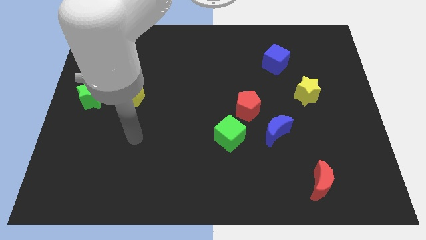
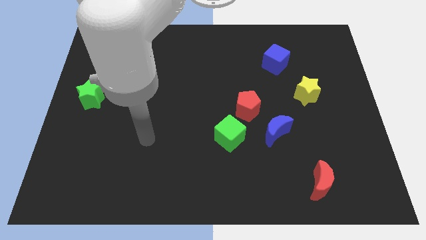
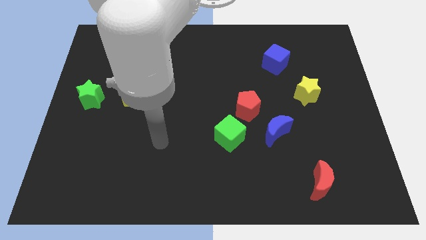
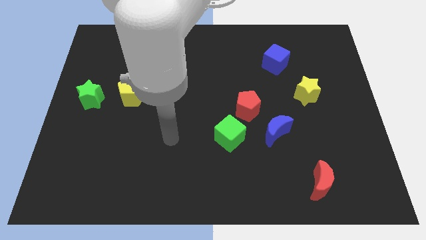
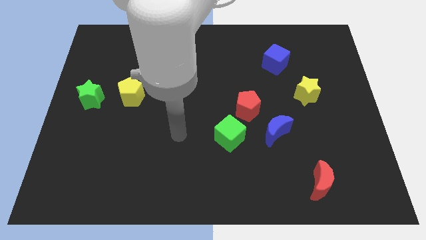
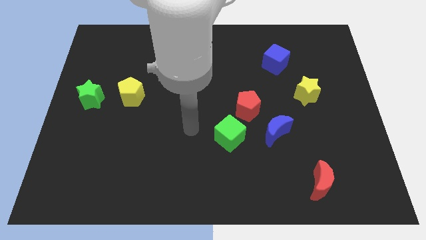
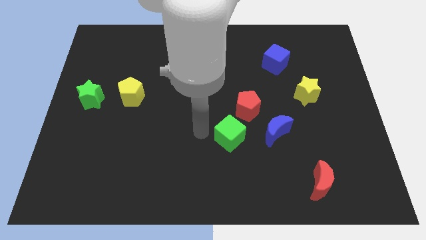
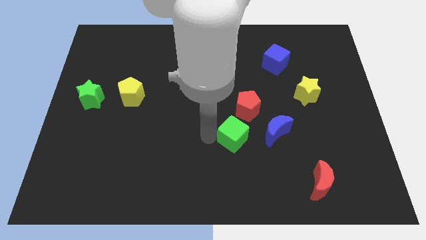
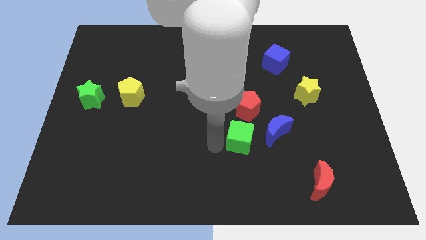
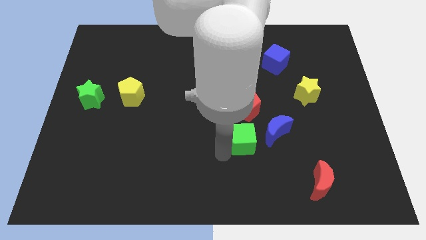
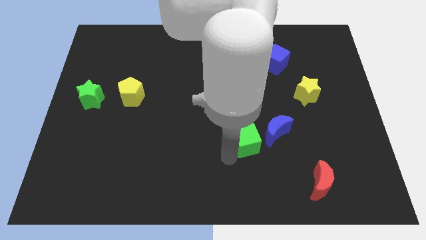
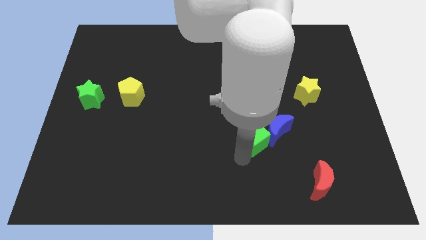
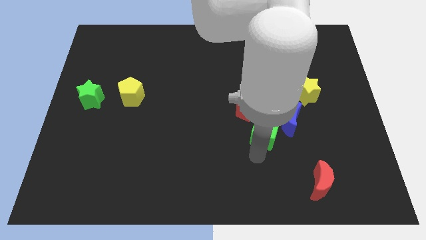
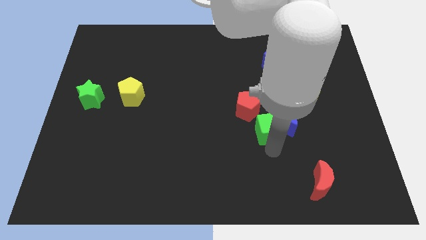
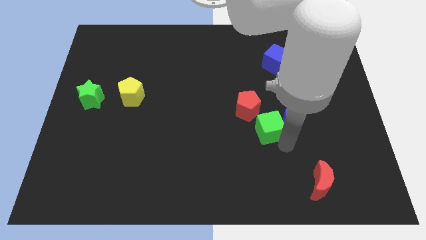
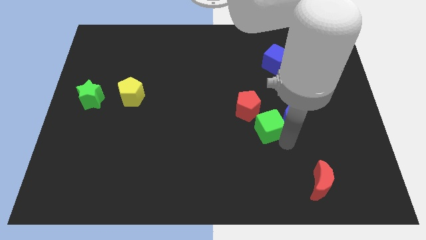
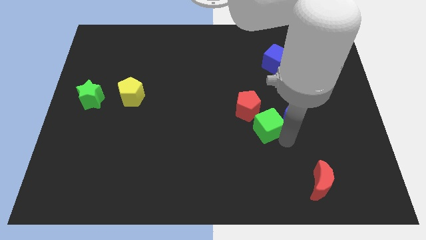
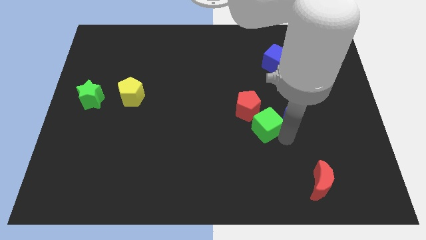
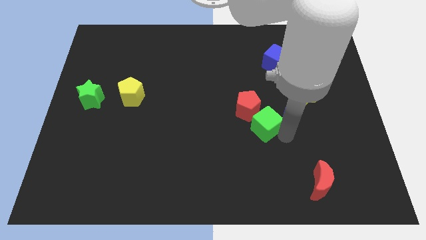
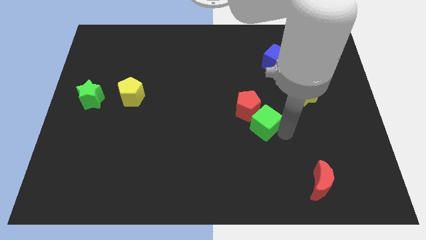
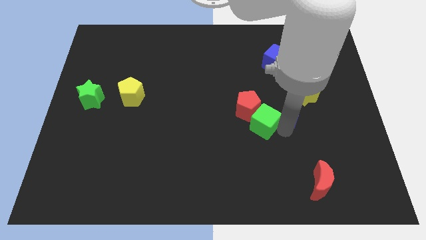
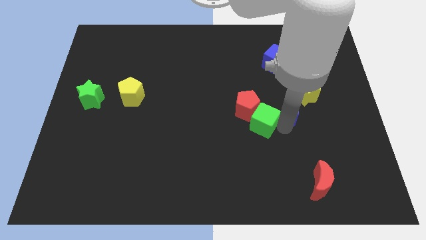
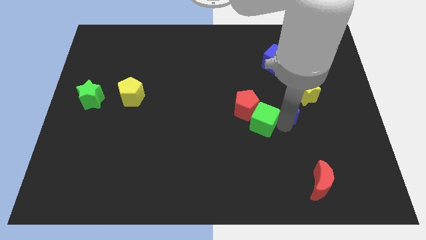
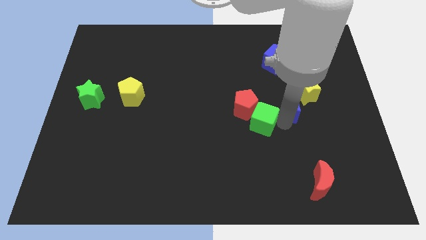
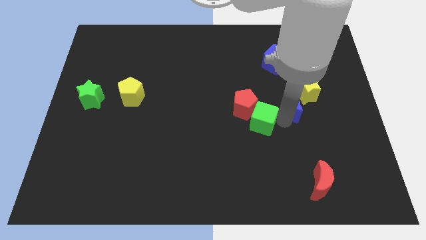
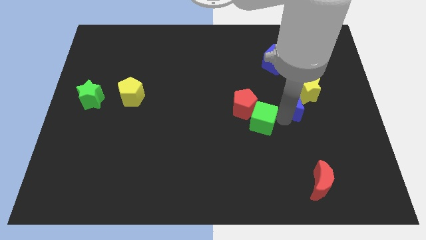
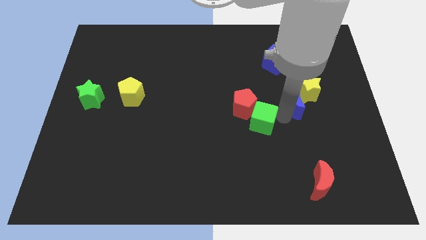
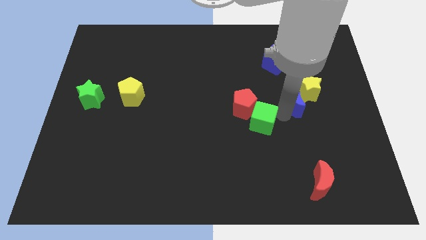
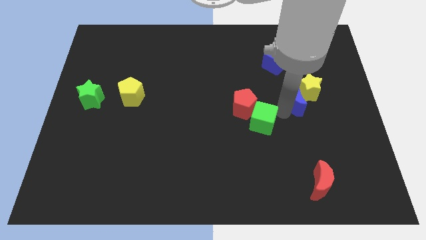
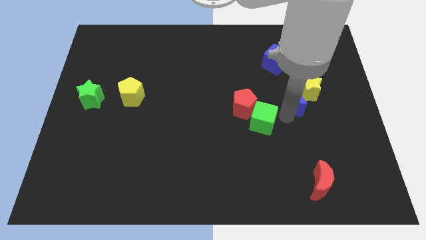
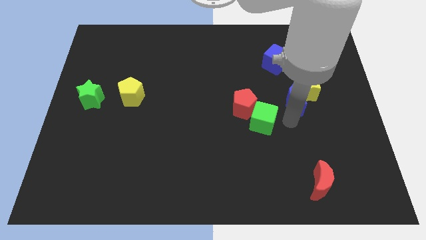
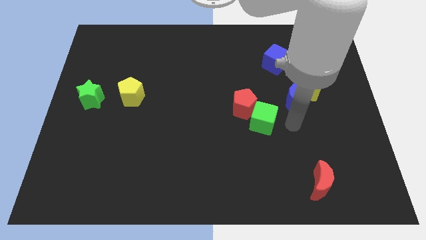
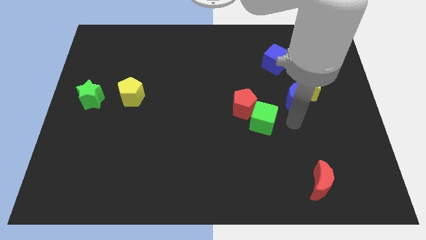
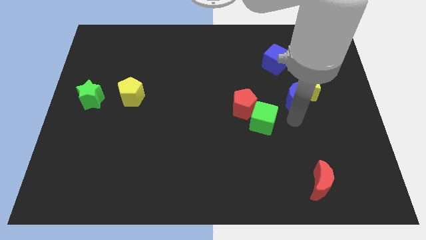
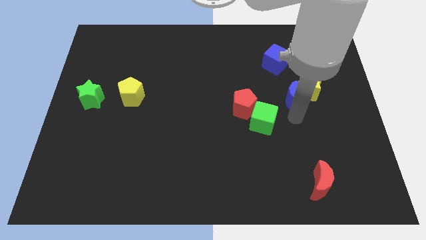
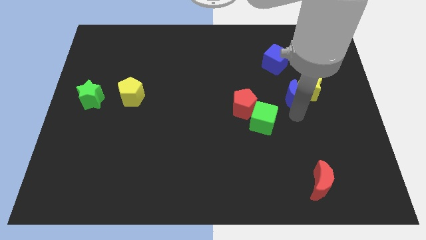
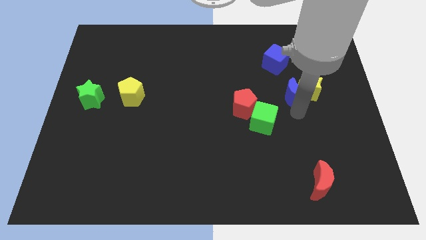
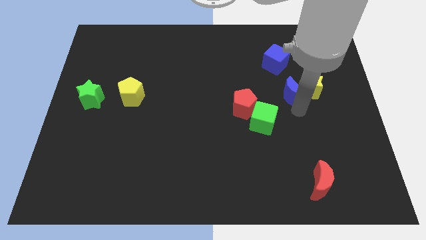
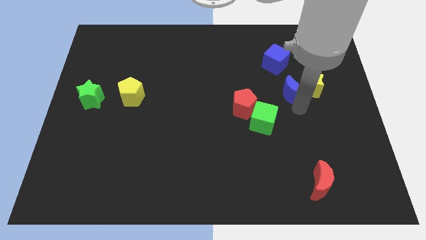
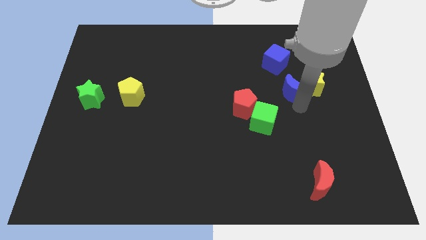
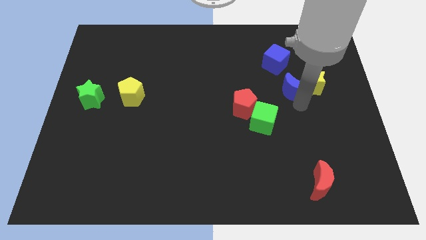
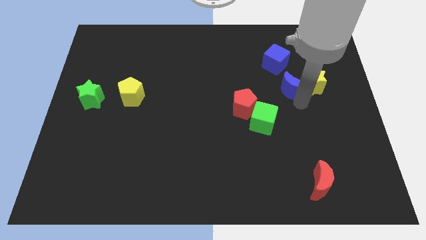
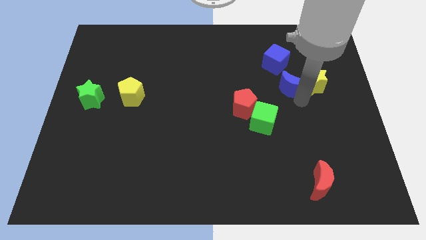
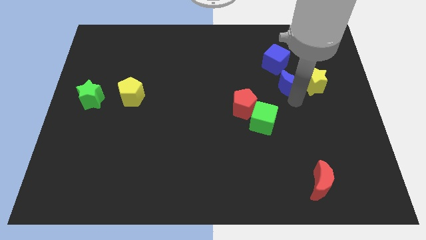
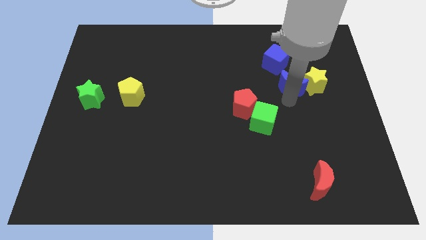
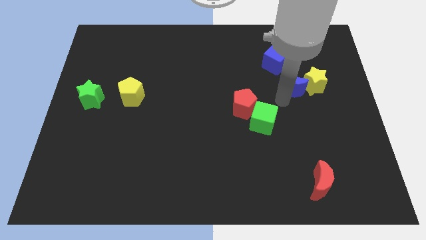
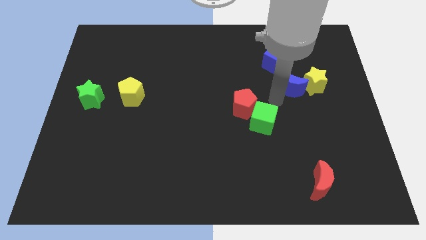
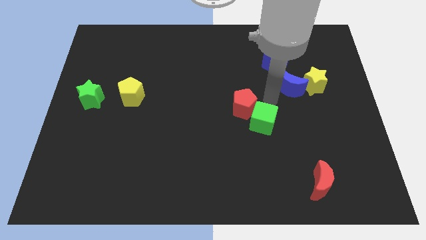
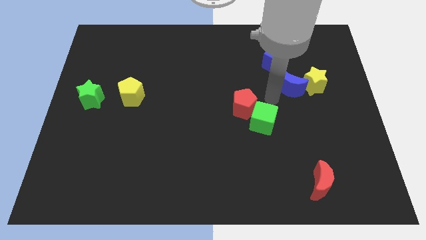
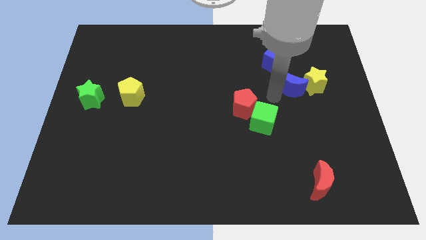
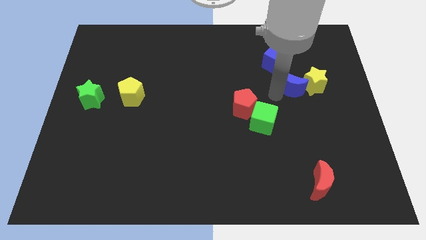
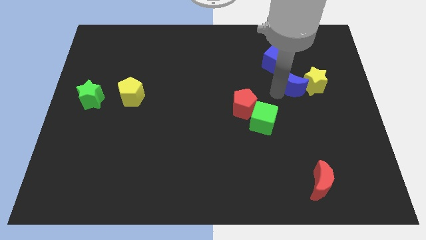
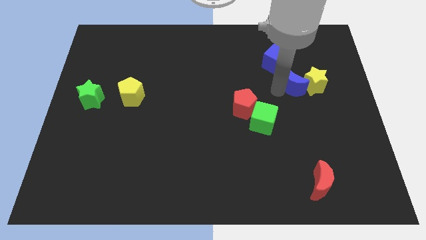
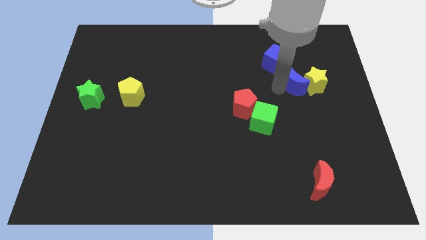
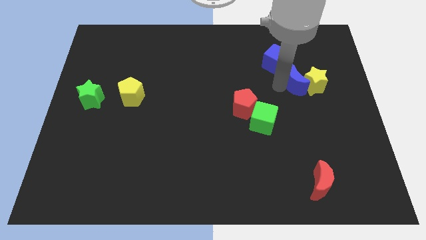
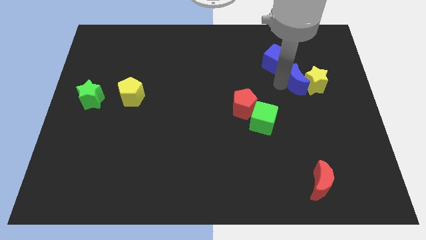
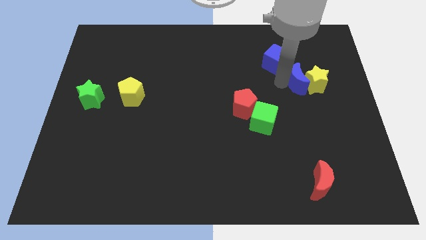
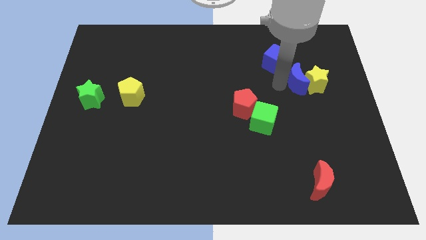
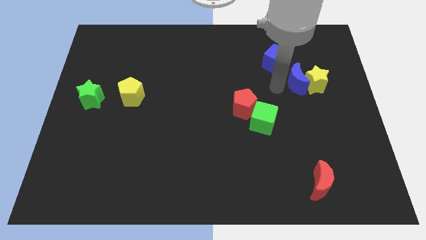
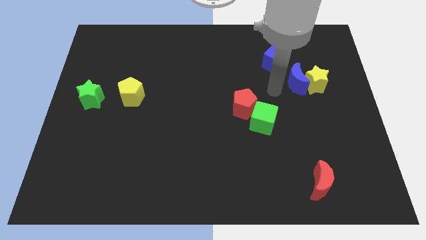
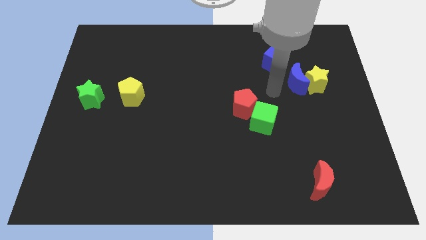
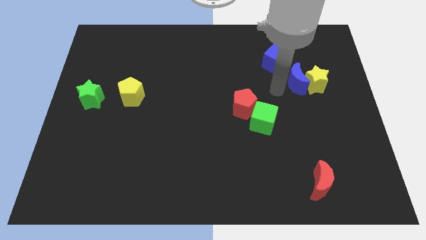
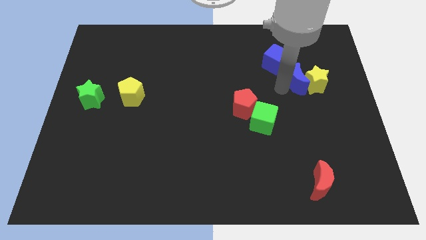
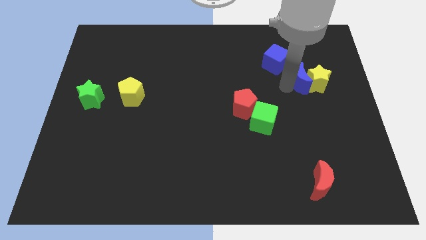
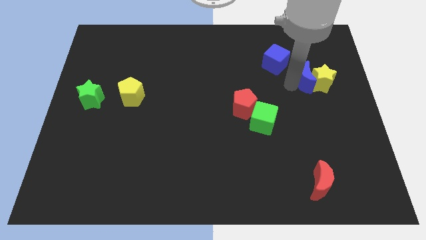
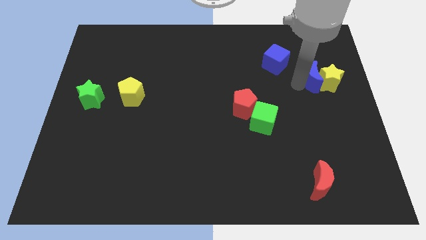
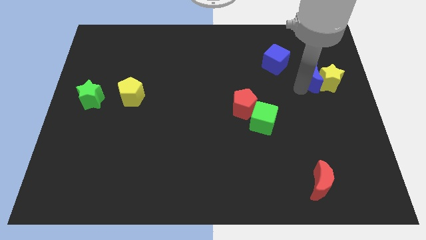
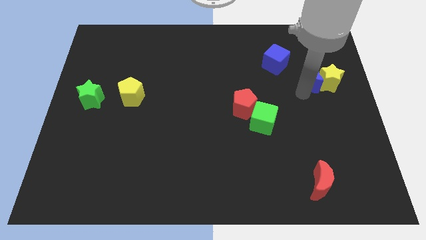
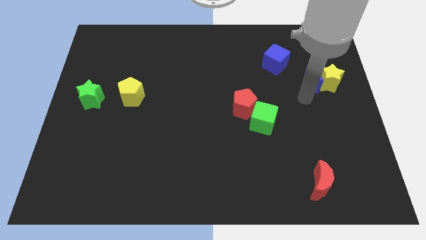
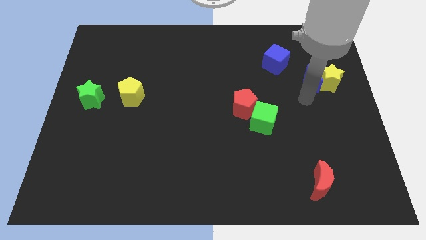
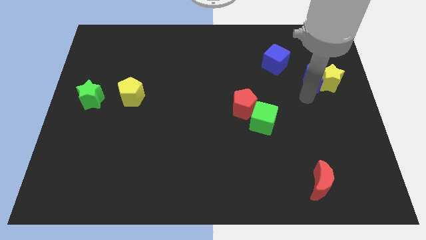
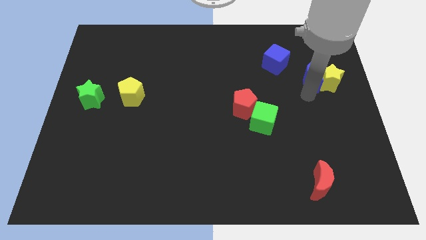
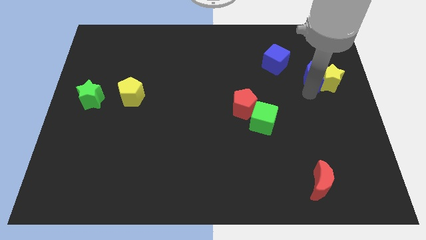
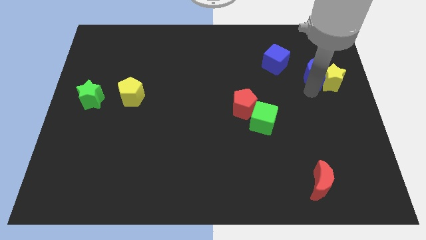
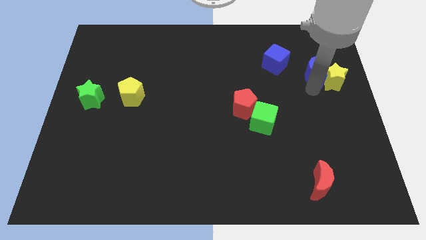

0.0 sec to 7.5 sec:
put the blue moon right of the blue cube
